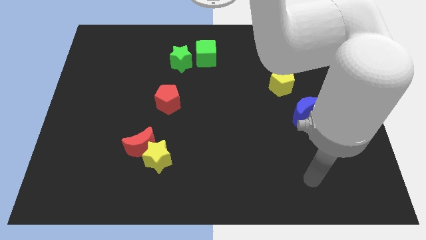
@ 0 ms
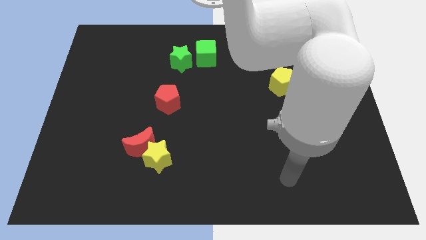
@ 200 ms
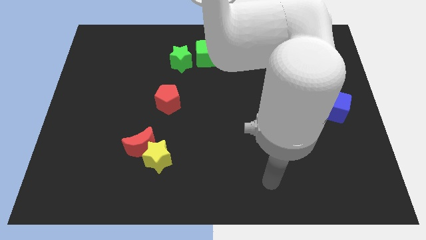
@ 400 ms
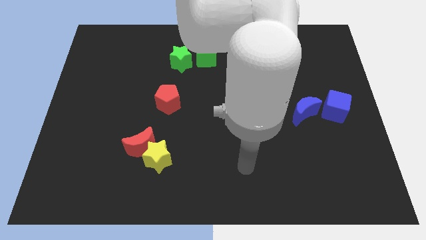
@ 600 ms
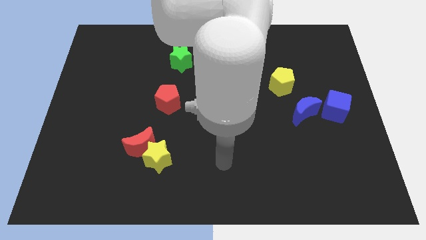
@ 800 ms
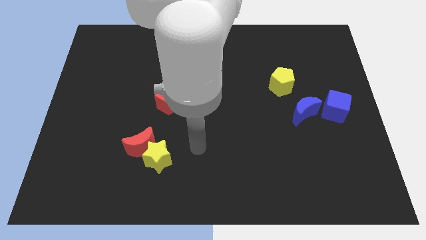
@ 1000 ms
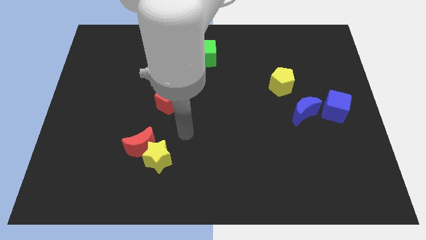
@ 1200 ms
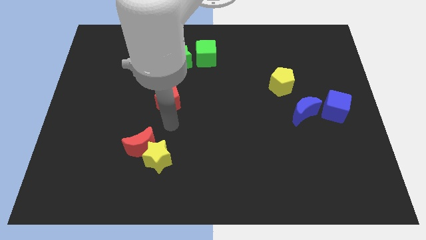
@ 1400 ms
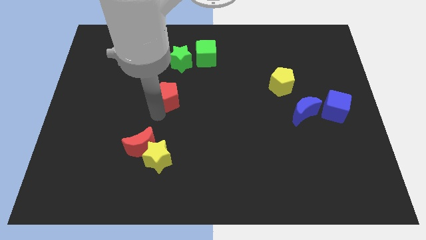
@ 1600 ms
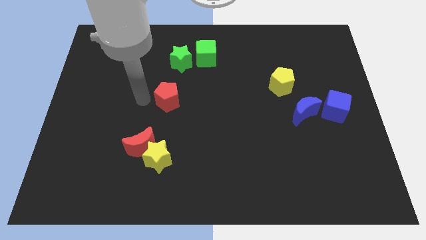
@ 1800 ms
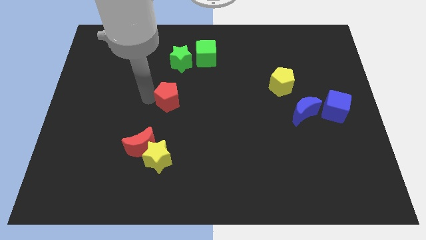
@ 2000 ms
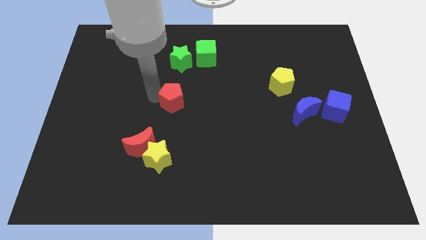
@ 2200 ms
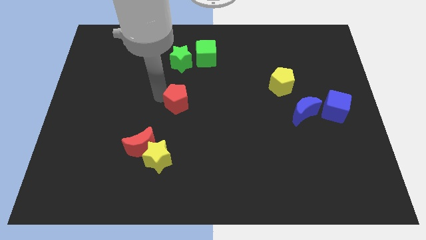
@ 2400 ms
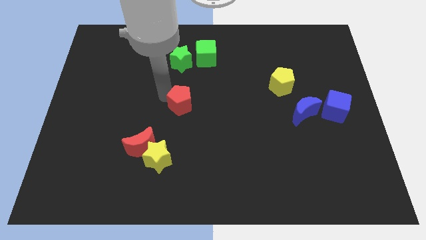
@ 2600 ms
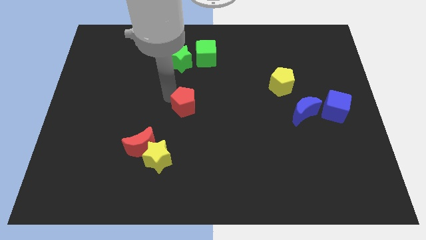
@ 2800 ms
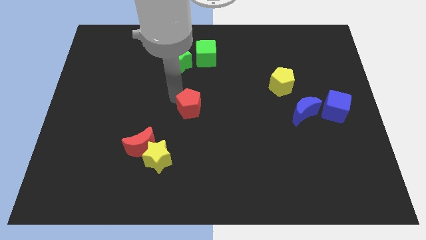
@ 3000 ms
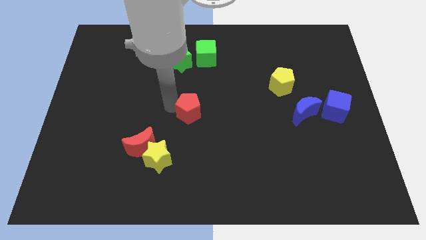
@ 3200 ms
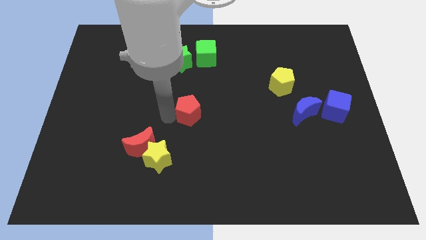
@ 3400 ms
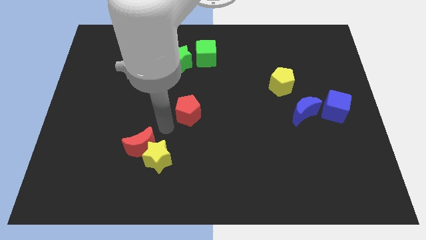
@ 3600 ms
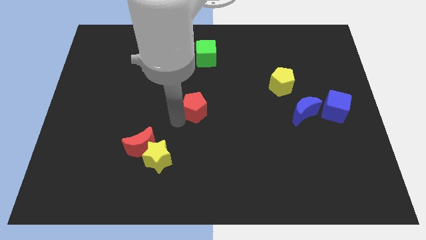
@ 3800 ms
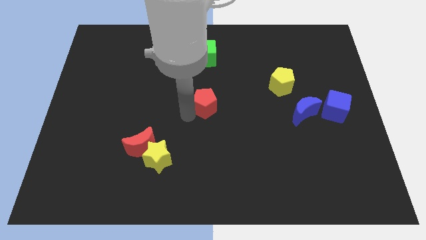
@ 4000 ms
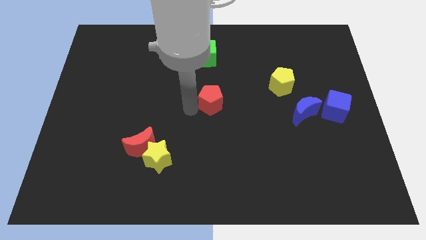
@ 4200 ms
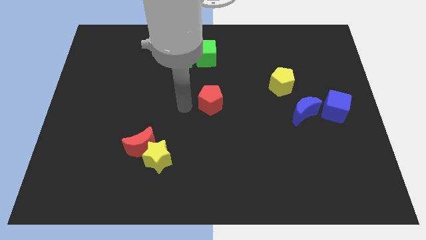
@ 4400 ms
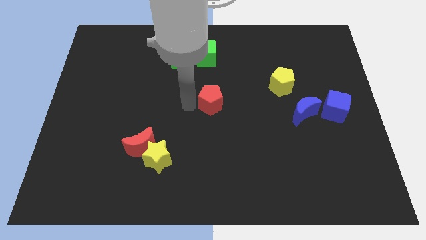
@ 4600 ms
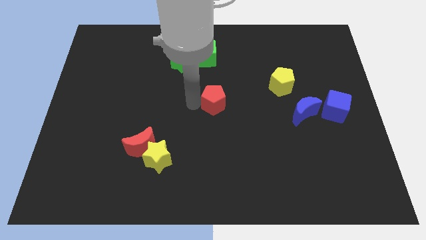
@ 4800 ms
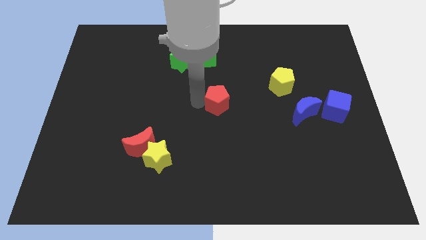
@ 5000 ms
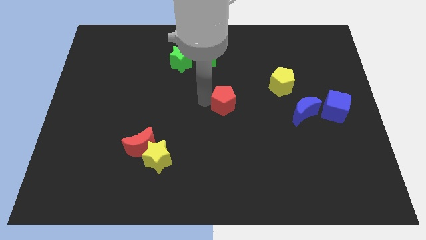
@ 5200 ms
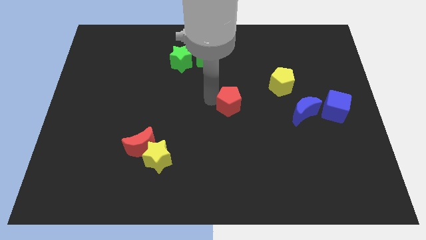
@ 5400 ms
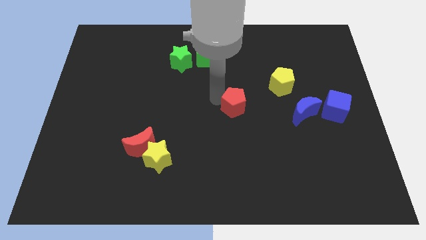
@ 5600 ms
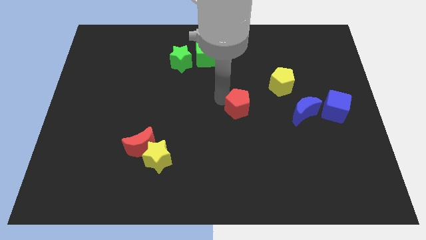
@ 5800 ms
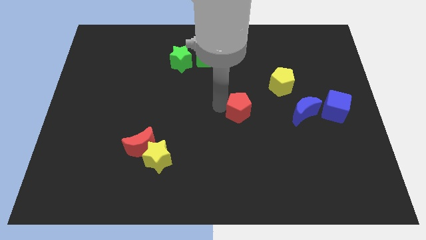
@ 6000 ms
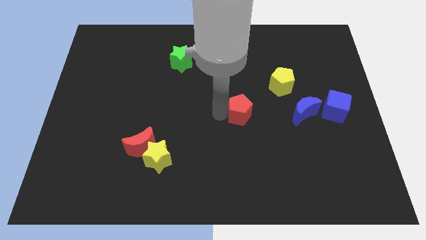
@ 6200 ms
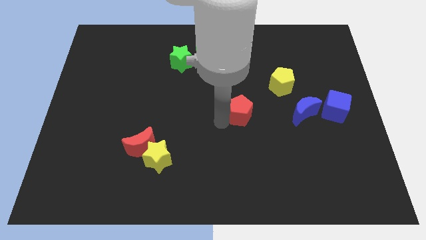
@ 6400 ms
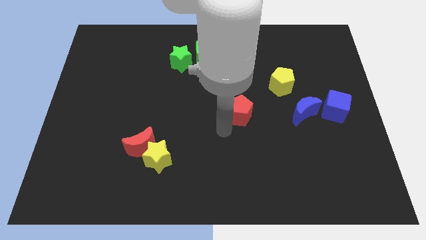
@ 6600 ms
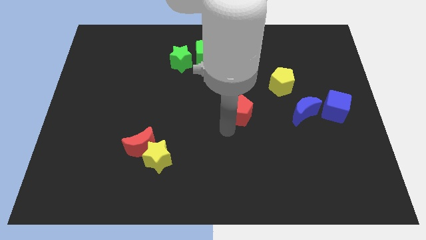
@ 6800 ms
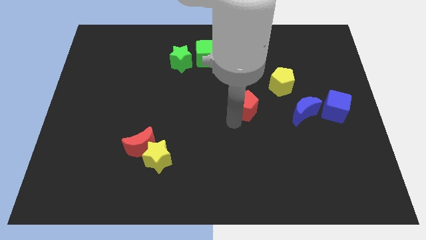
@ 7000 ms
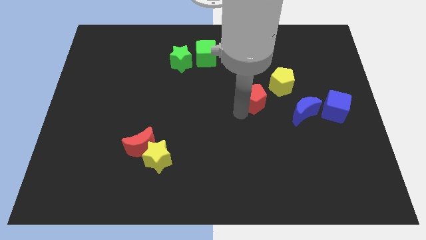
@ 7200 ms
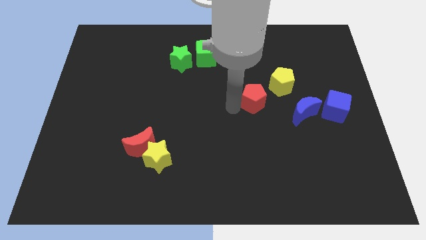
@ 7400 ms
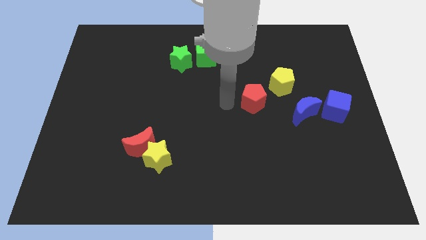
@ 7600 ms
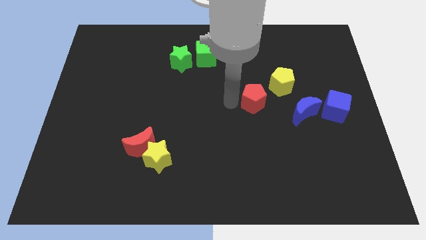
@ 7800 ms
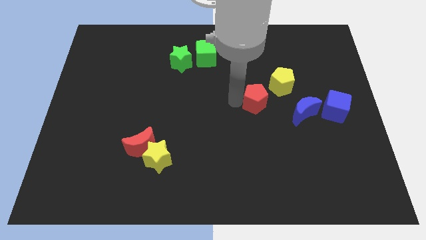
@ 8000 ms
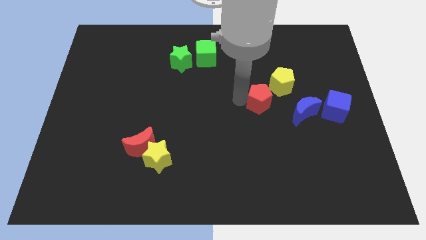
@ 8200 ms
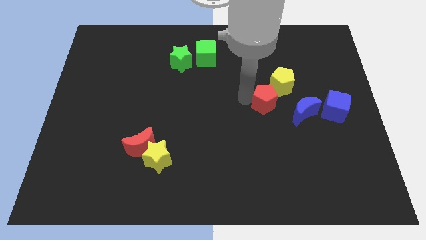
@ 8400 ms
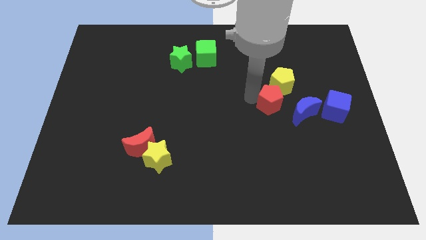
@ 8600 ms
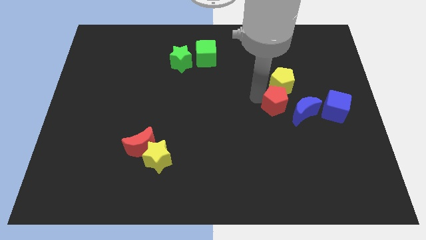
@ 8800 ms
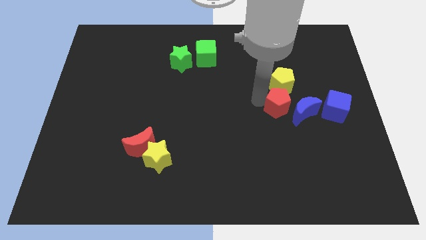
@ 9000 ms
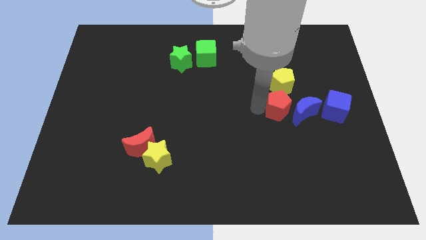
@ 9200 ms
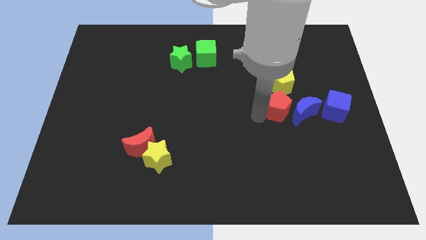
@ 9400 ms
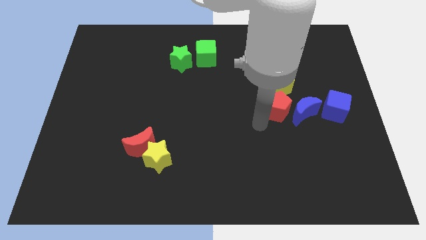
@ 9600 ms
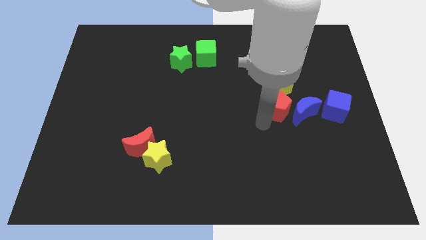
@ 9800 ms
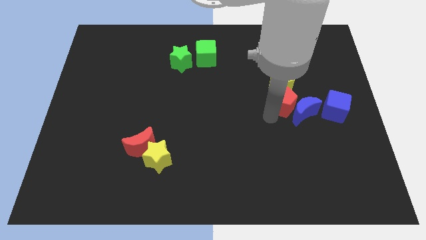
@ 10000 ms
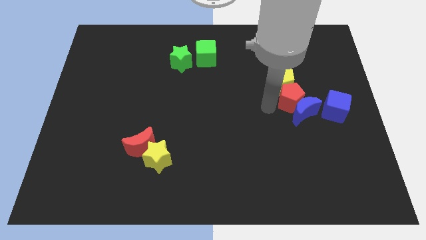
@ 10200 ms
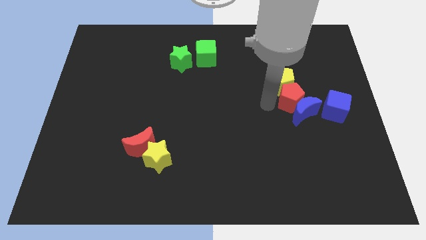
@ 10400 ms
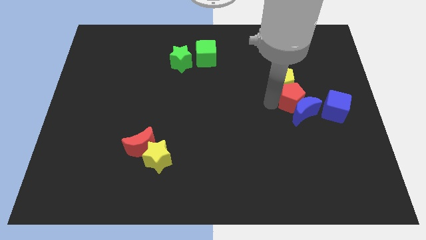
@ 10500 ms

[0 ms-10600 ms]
push the red pentagon diagonally up and to the right of the blue moon

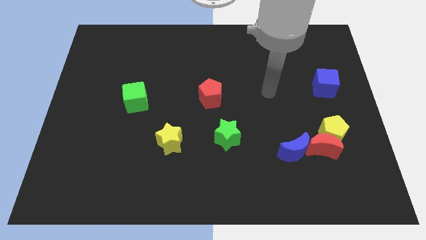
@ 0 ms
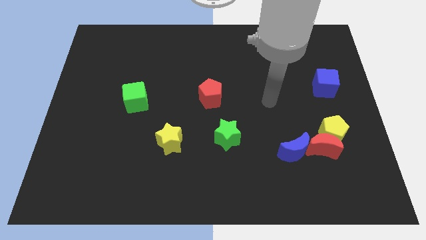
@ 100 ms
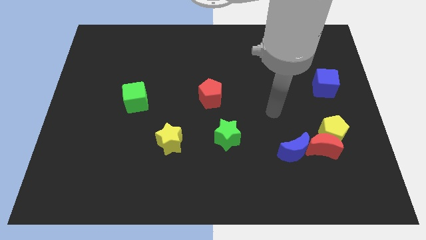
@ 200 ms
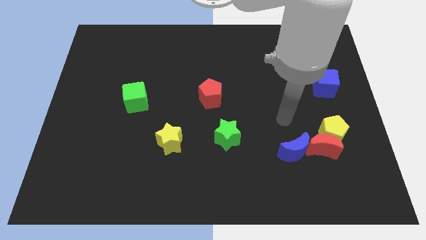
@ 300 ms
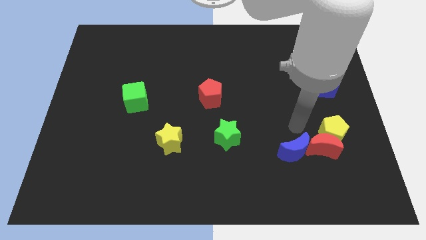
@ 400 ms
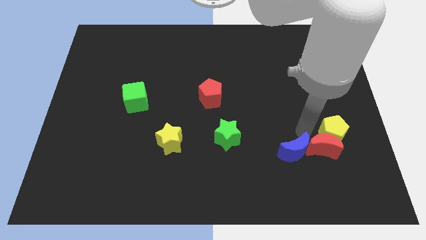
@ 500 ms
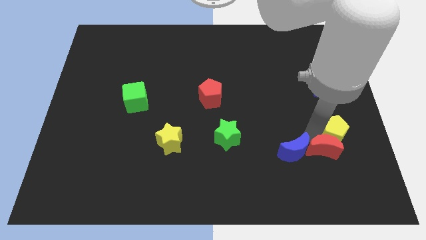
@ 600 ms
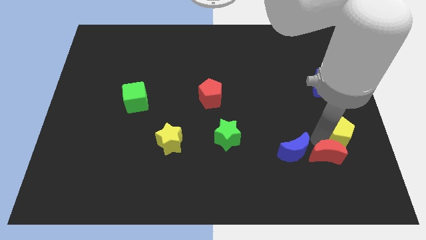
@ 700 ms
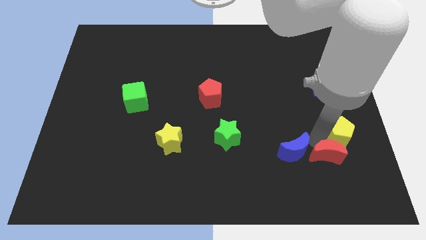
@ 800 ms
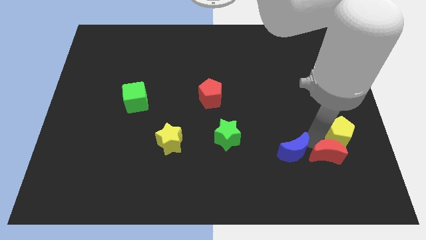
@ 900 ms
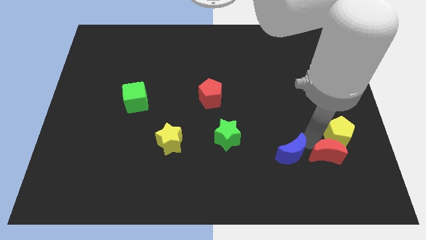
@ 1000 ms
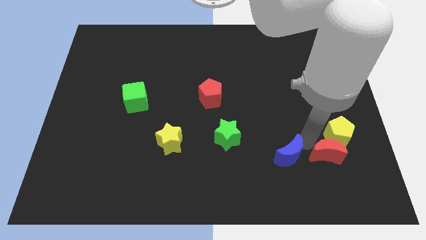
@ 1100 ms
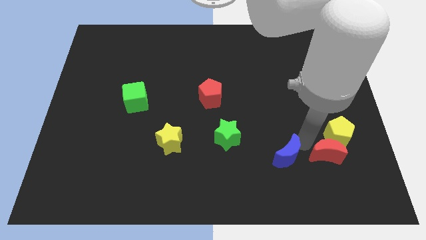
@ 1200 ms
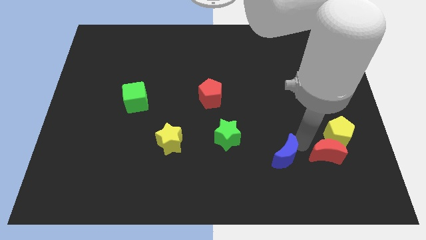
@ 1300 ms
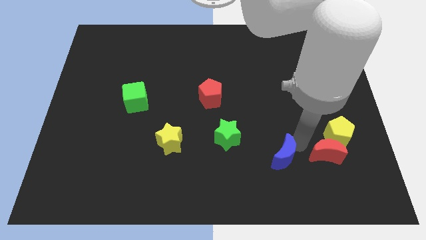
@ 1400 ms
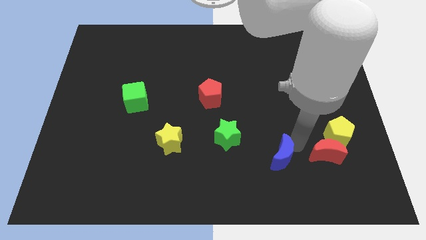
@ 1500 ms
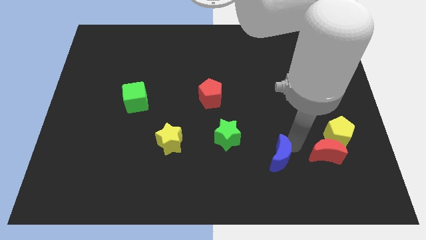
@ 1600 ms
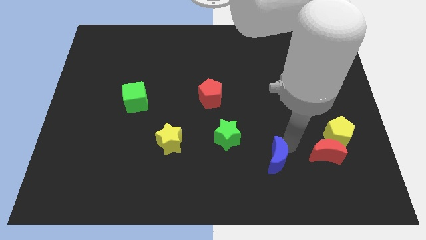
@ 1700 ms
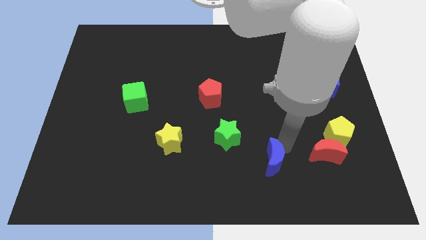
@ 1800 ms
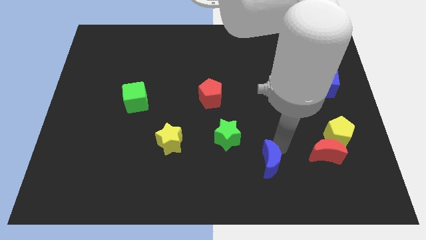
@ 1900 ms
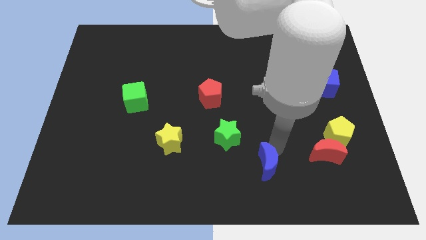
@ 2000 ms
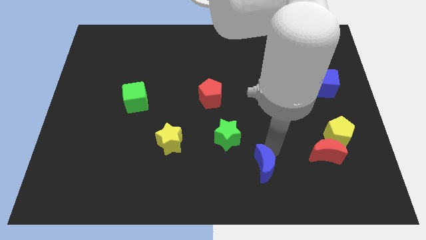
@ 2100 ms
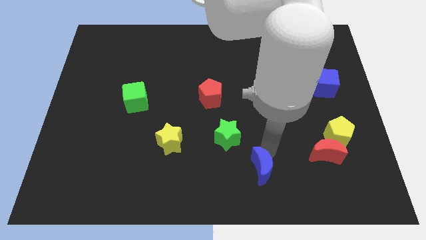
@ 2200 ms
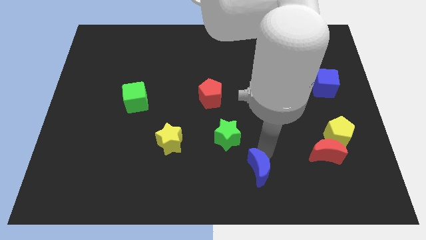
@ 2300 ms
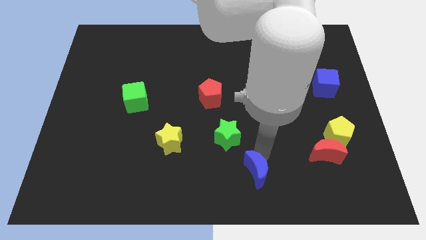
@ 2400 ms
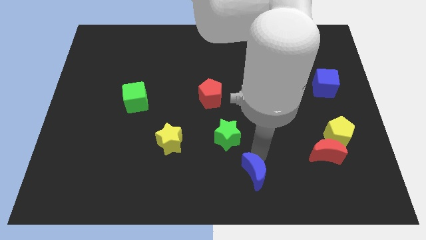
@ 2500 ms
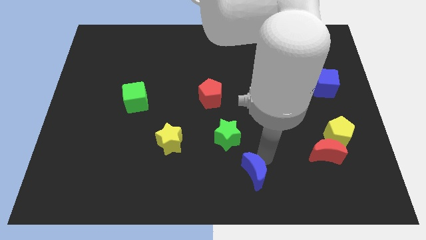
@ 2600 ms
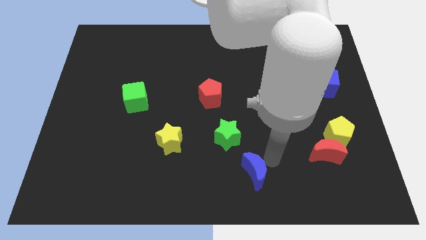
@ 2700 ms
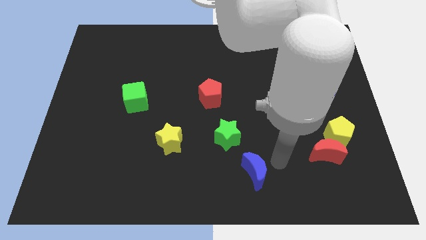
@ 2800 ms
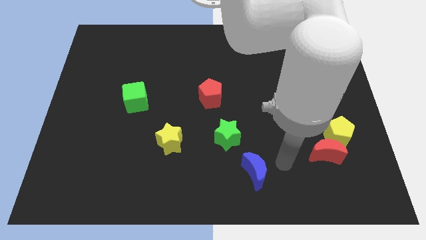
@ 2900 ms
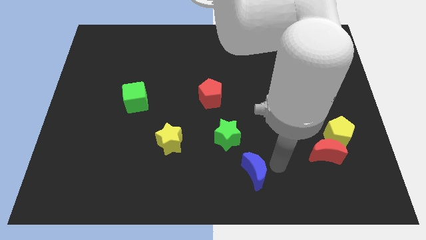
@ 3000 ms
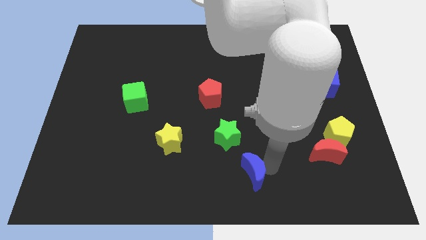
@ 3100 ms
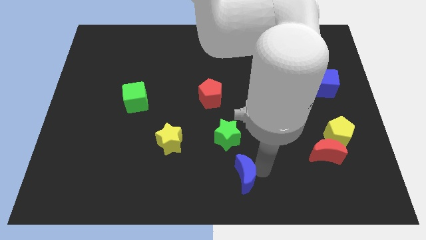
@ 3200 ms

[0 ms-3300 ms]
push the blue moon to the bottom of the green star
